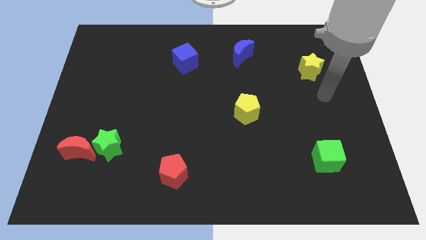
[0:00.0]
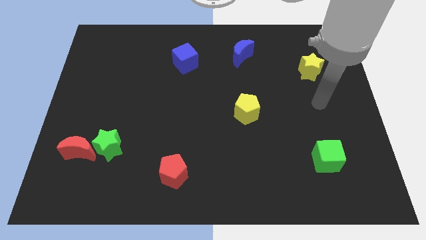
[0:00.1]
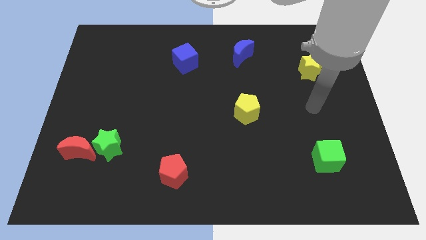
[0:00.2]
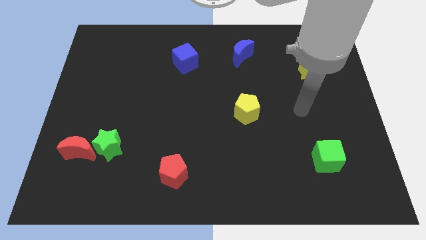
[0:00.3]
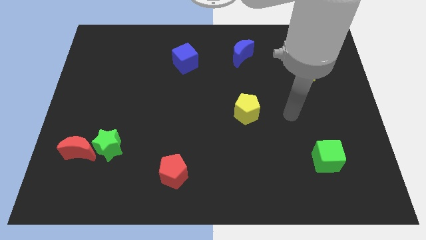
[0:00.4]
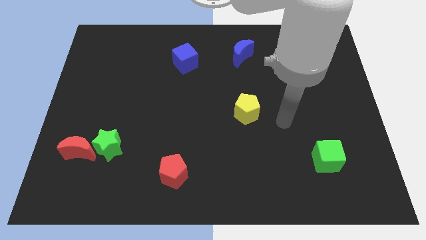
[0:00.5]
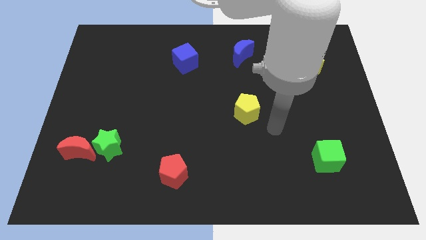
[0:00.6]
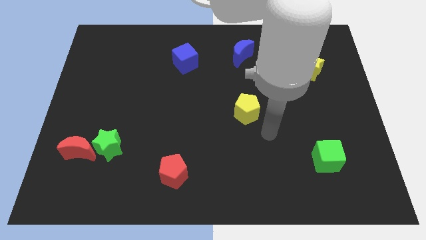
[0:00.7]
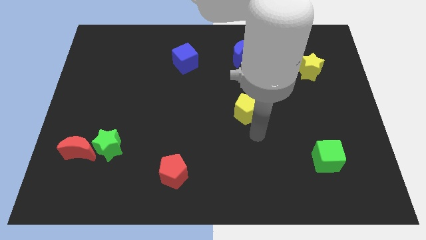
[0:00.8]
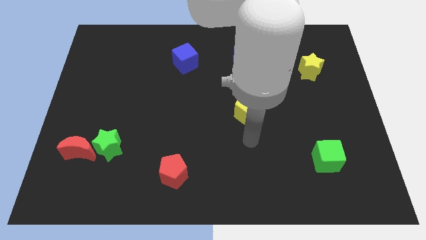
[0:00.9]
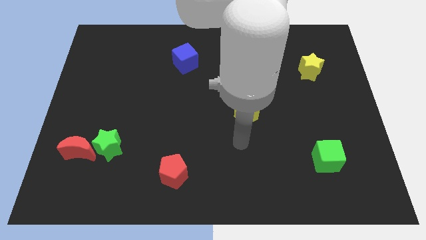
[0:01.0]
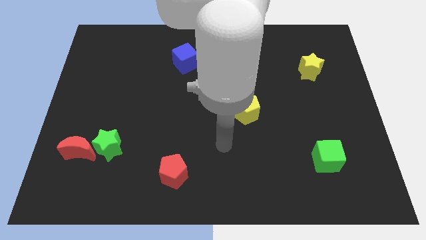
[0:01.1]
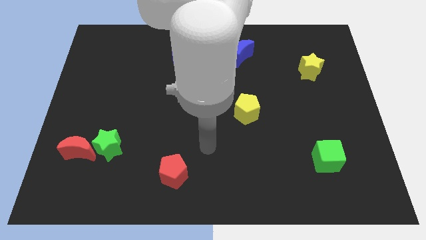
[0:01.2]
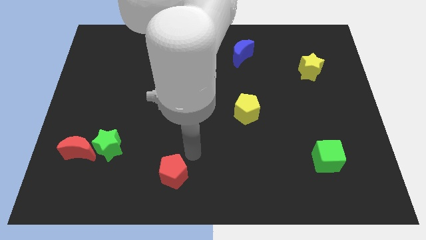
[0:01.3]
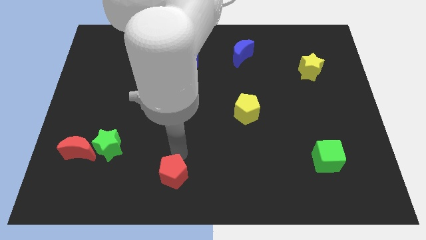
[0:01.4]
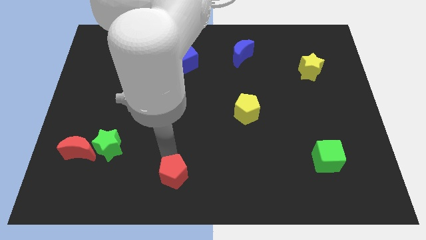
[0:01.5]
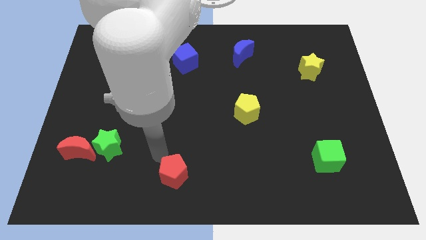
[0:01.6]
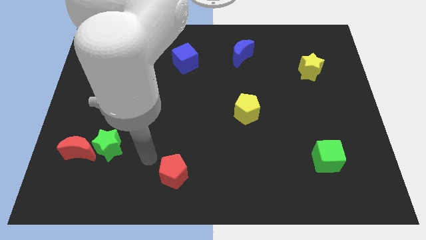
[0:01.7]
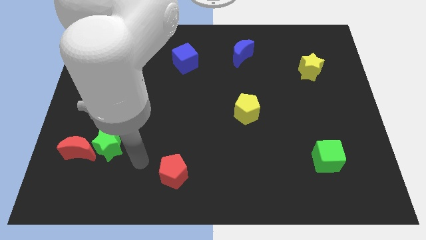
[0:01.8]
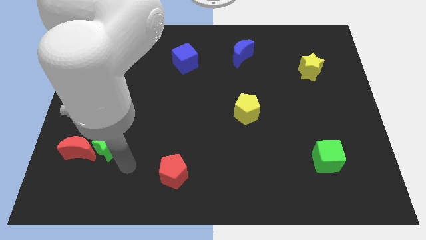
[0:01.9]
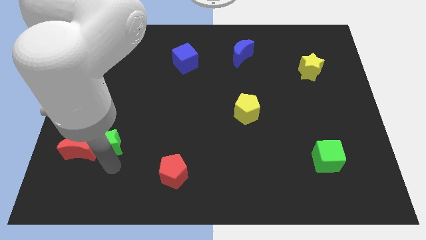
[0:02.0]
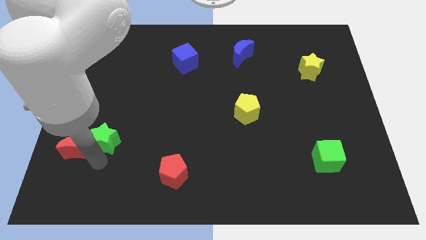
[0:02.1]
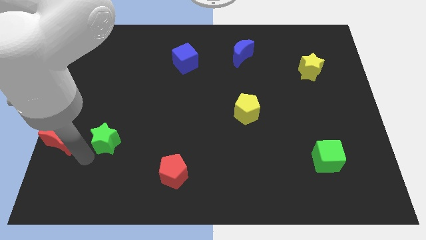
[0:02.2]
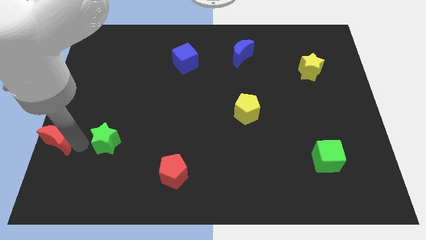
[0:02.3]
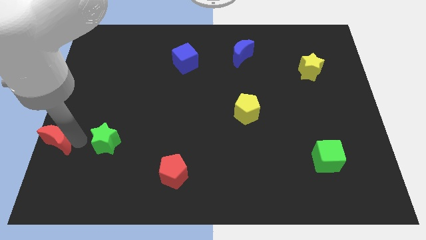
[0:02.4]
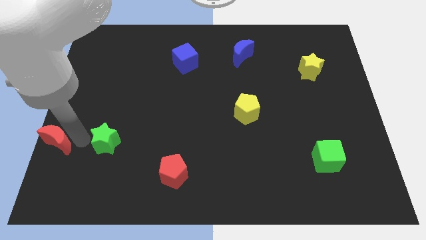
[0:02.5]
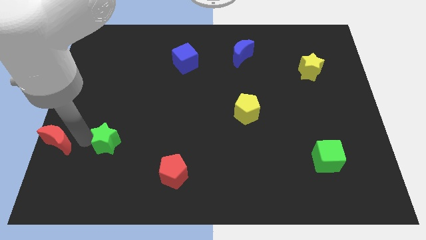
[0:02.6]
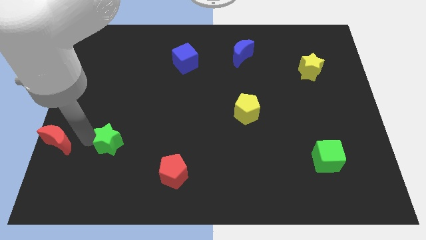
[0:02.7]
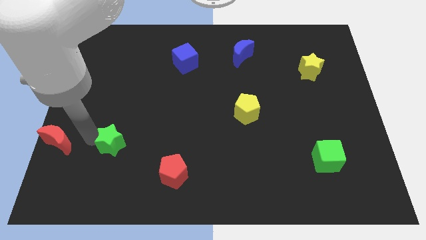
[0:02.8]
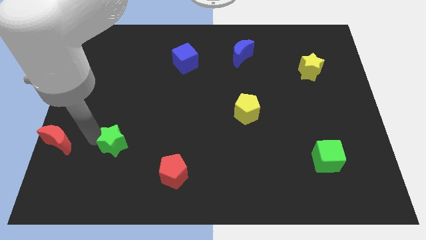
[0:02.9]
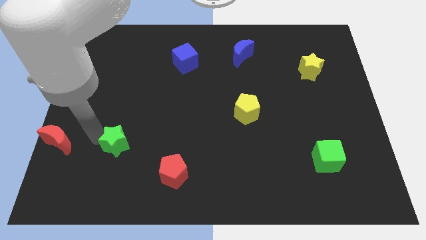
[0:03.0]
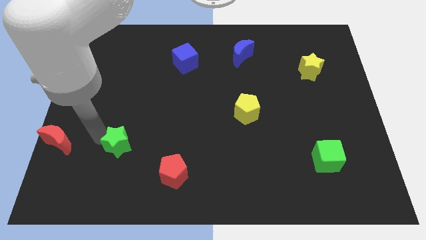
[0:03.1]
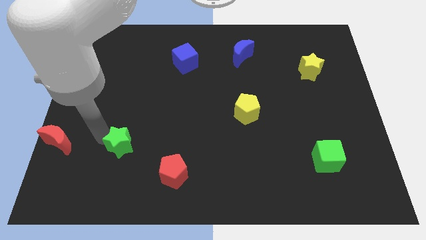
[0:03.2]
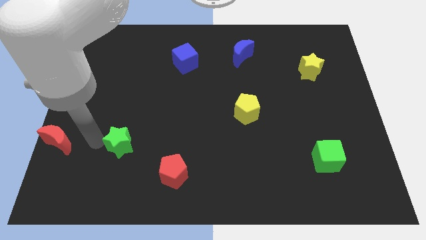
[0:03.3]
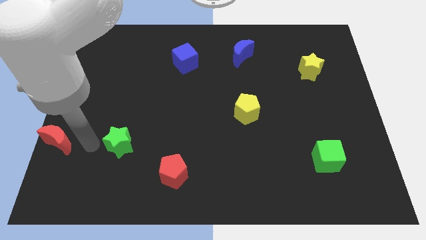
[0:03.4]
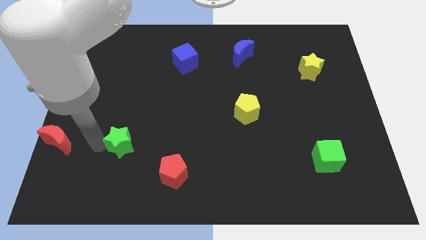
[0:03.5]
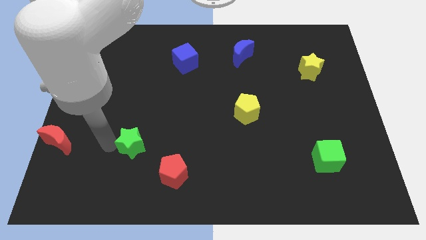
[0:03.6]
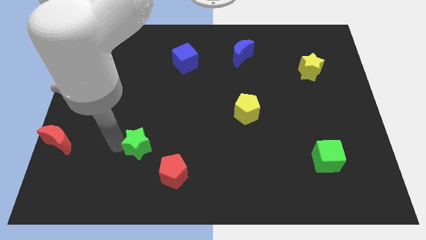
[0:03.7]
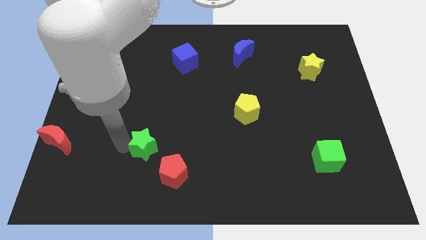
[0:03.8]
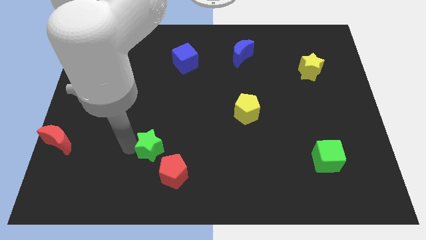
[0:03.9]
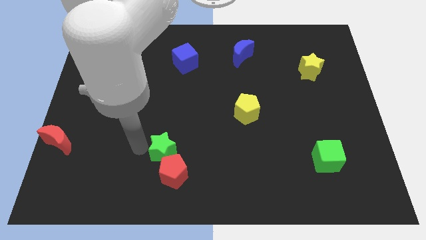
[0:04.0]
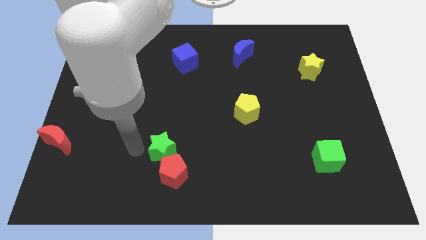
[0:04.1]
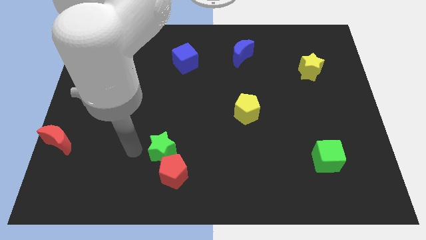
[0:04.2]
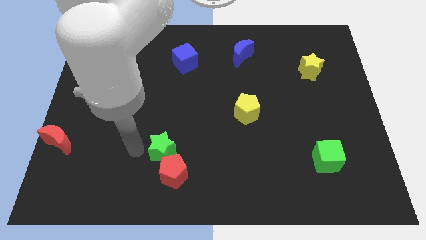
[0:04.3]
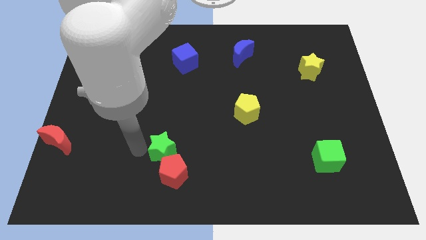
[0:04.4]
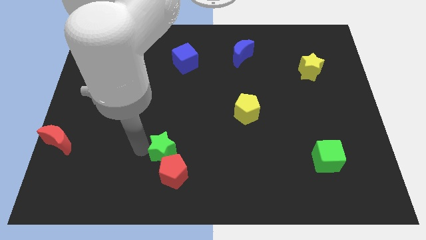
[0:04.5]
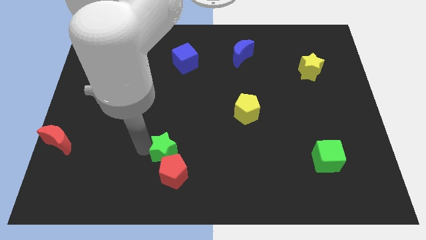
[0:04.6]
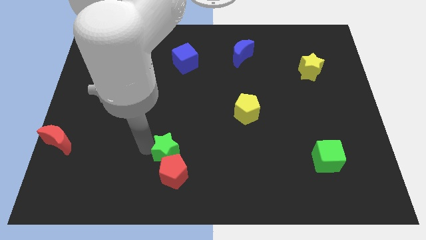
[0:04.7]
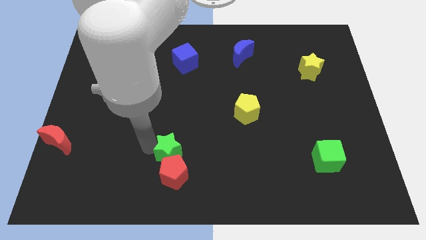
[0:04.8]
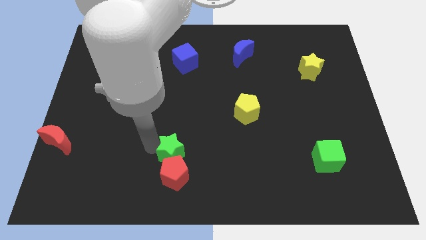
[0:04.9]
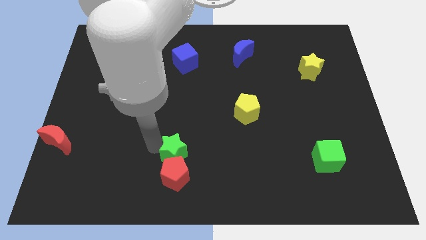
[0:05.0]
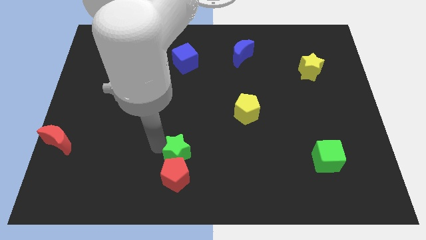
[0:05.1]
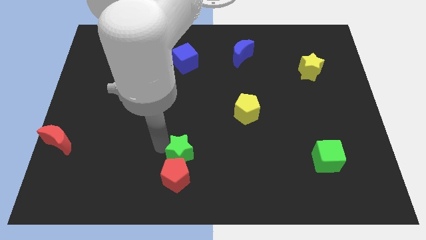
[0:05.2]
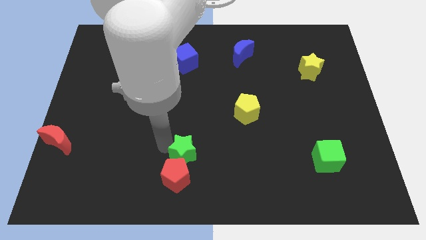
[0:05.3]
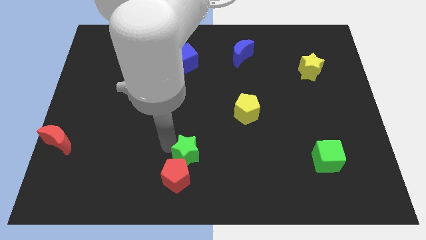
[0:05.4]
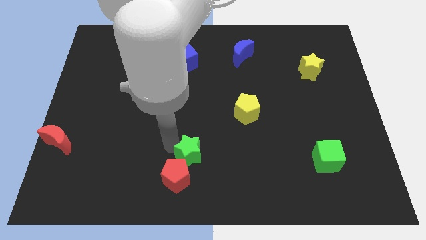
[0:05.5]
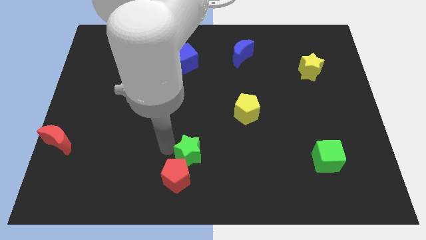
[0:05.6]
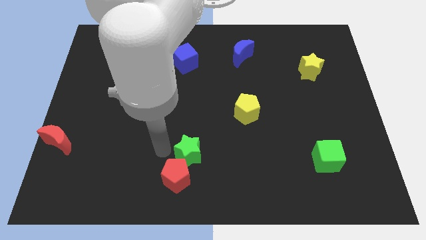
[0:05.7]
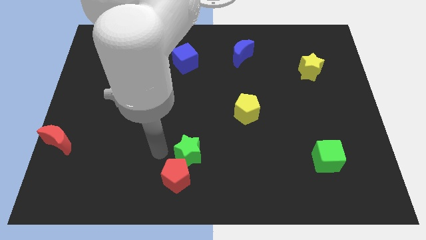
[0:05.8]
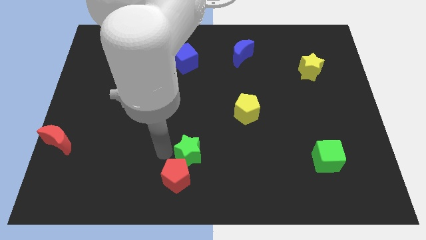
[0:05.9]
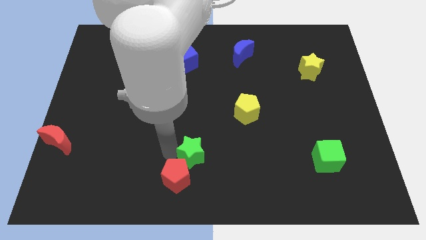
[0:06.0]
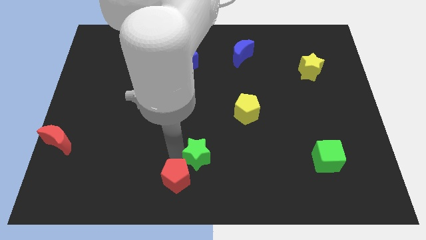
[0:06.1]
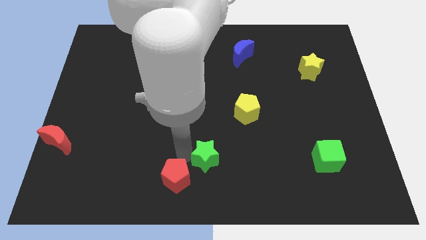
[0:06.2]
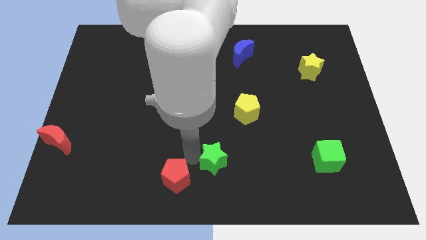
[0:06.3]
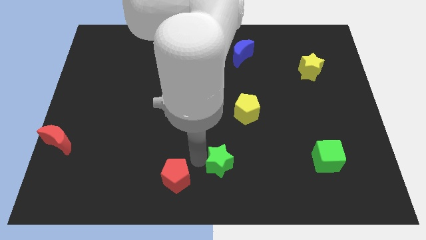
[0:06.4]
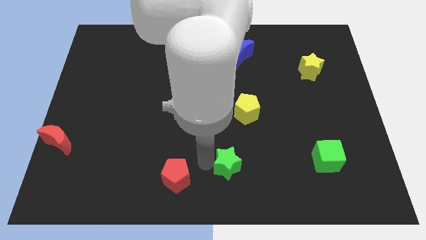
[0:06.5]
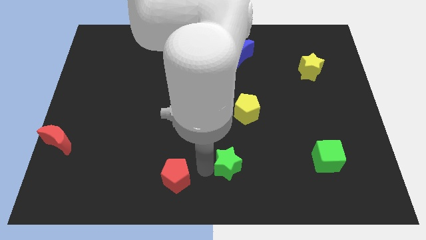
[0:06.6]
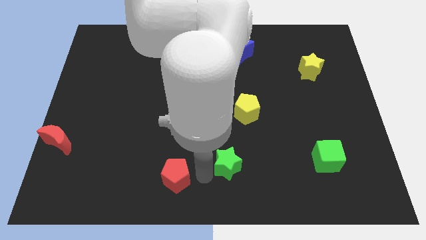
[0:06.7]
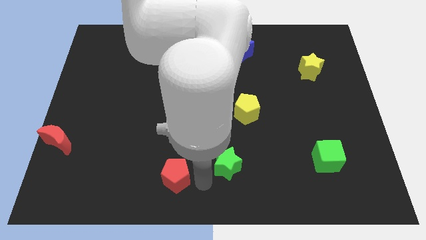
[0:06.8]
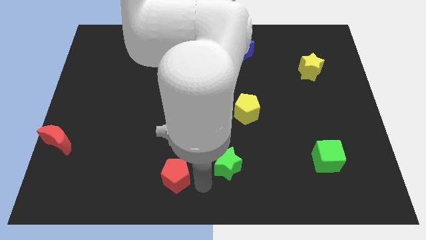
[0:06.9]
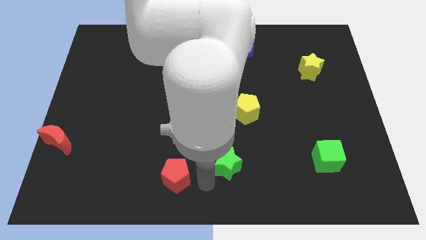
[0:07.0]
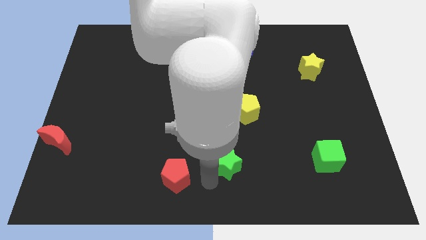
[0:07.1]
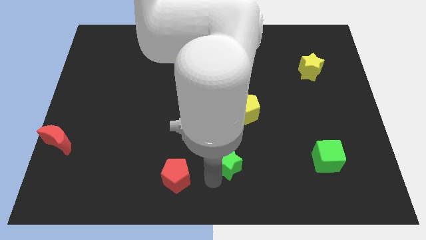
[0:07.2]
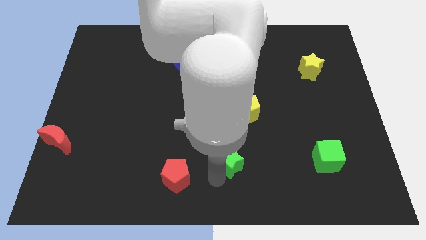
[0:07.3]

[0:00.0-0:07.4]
move the green star to the bottom of the yellow pentagon

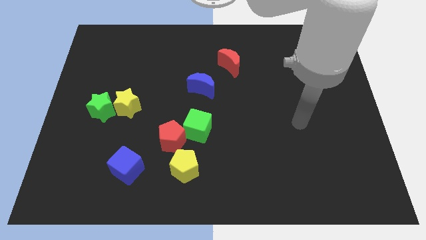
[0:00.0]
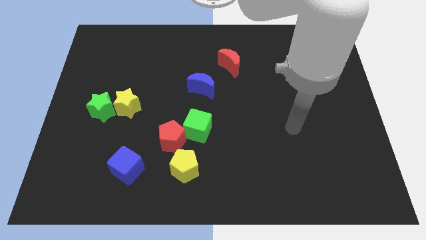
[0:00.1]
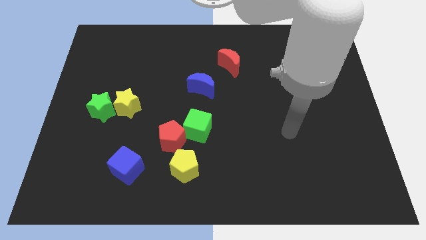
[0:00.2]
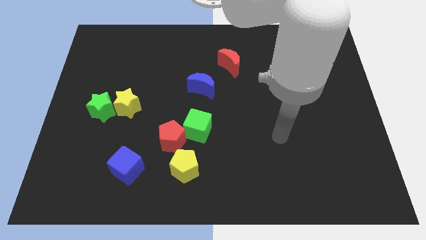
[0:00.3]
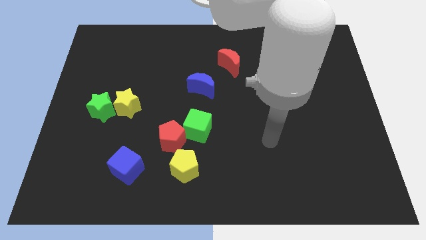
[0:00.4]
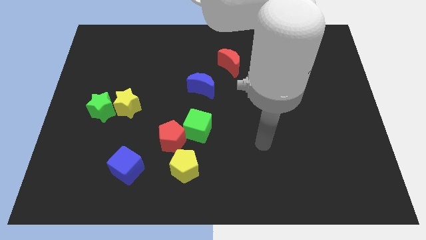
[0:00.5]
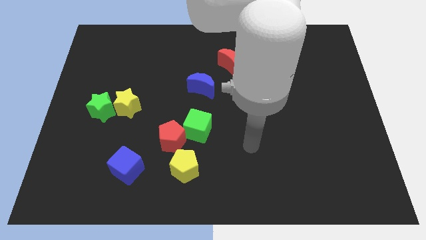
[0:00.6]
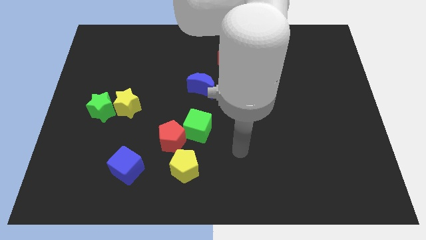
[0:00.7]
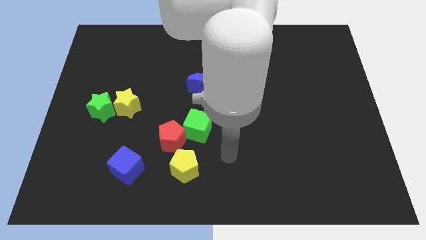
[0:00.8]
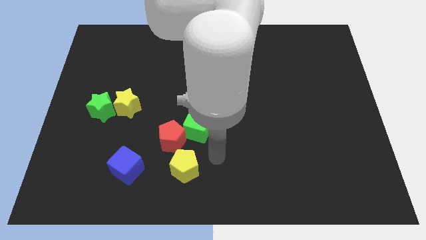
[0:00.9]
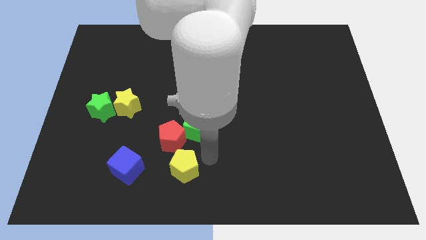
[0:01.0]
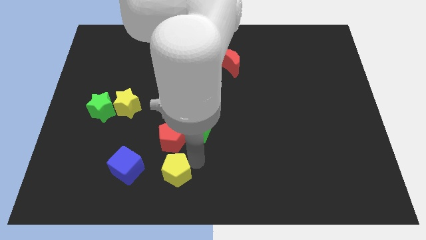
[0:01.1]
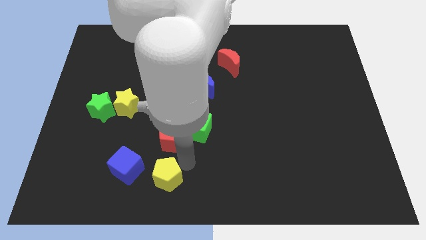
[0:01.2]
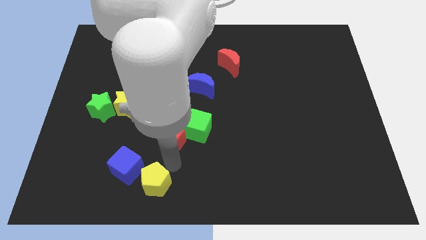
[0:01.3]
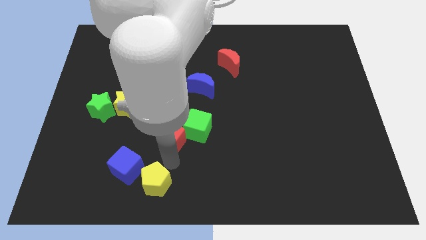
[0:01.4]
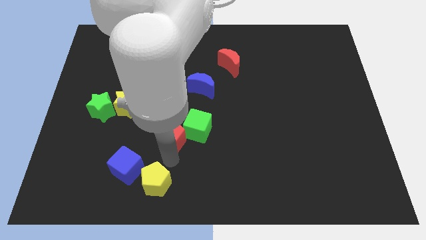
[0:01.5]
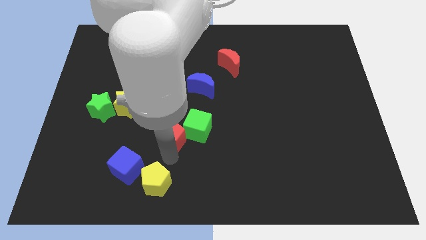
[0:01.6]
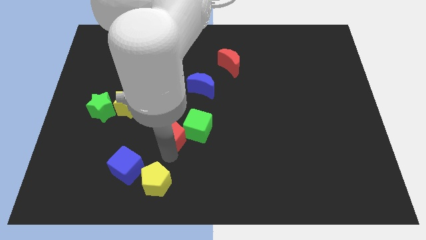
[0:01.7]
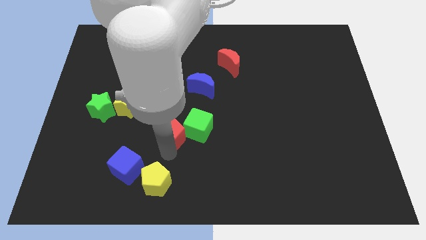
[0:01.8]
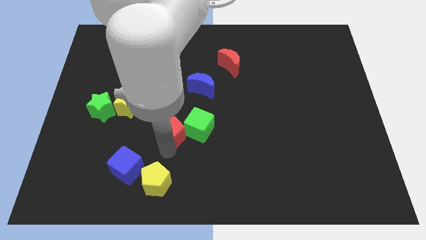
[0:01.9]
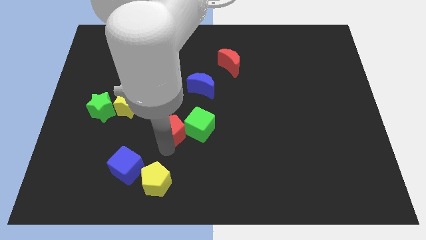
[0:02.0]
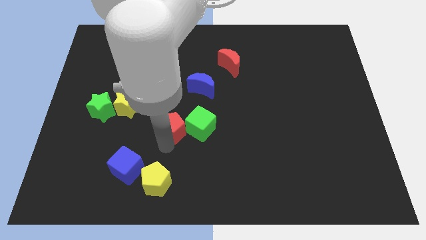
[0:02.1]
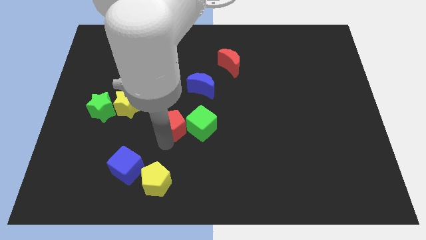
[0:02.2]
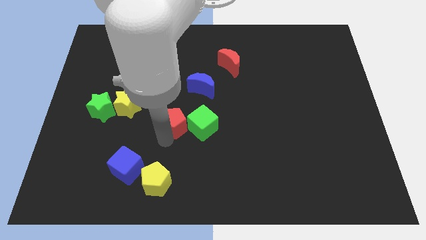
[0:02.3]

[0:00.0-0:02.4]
put the red pentagon right of the yellow star
